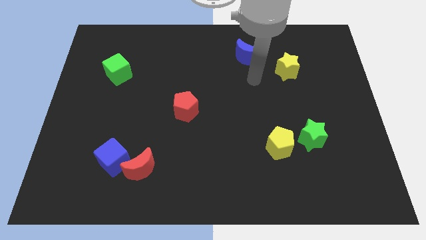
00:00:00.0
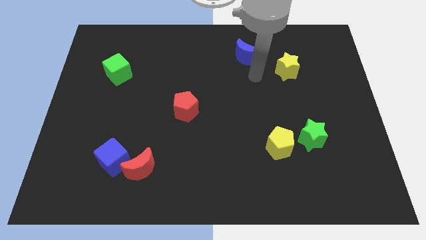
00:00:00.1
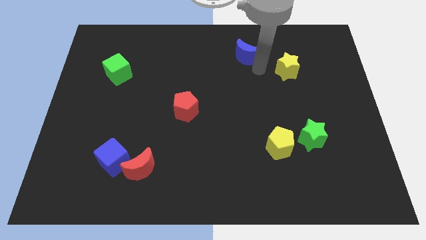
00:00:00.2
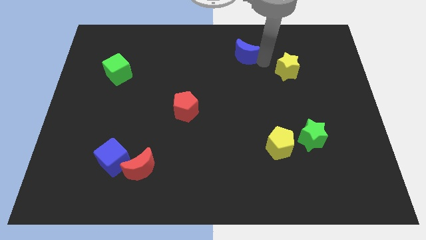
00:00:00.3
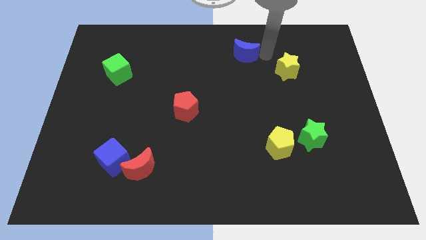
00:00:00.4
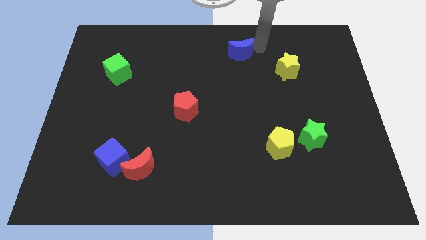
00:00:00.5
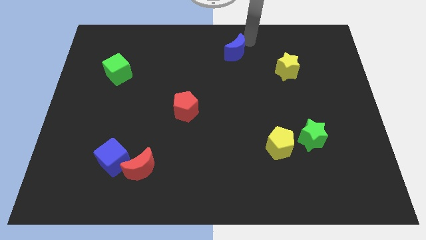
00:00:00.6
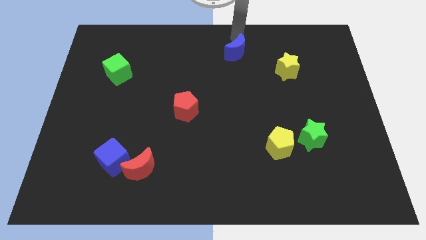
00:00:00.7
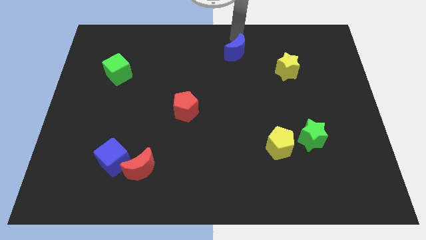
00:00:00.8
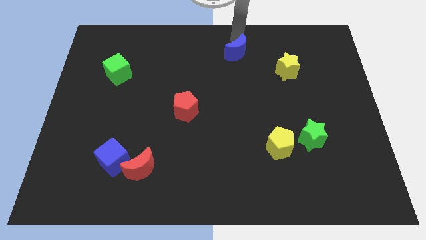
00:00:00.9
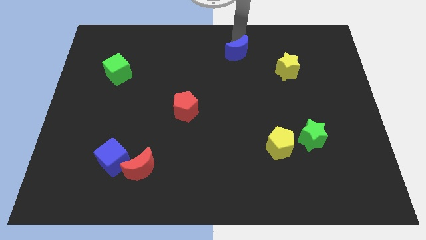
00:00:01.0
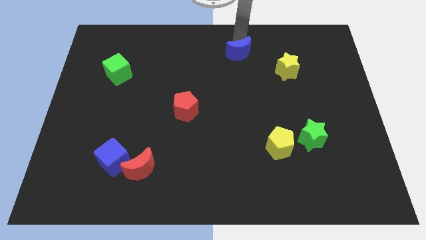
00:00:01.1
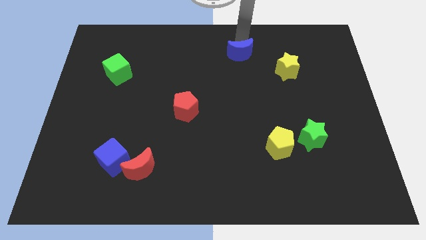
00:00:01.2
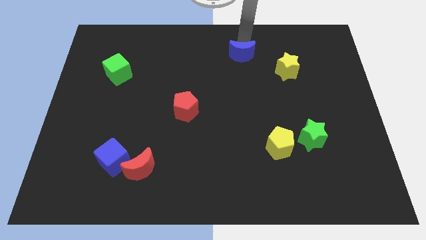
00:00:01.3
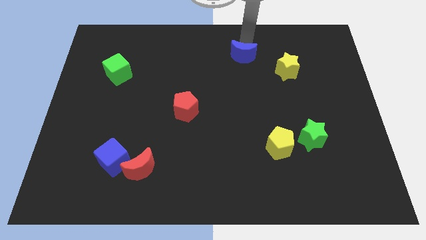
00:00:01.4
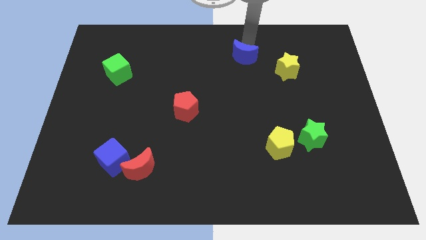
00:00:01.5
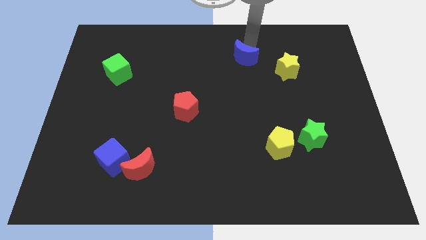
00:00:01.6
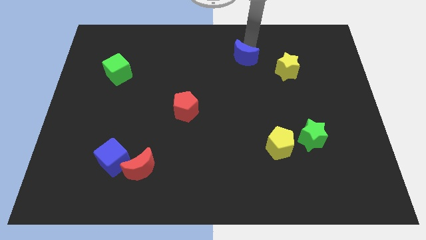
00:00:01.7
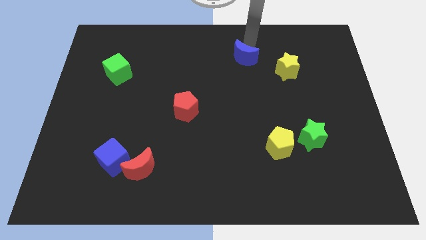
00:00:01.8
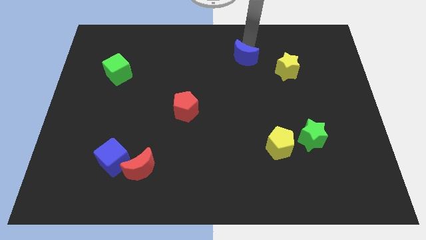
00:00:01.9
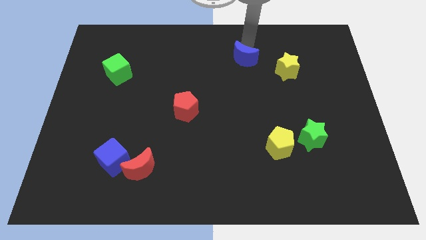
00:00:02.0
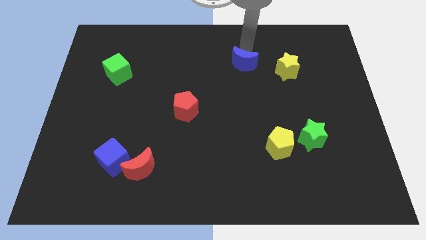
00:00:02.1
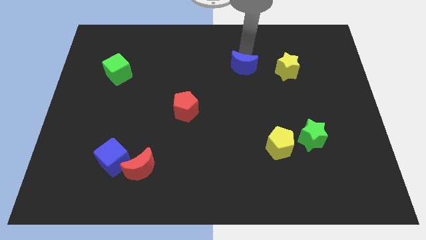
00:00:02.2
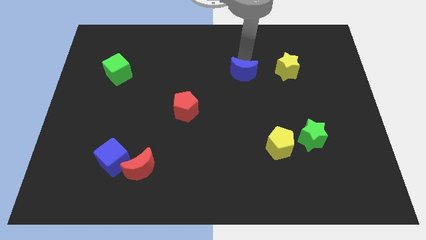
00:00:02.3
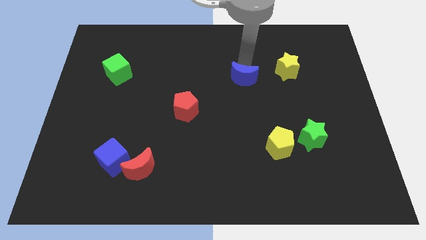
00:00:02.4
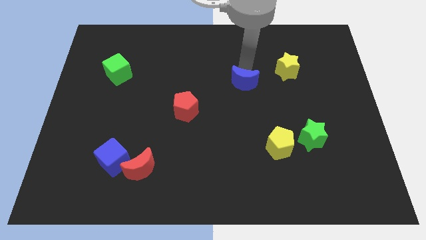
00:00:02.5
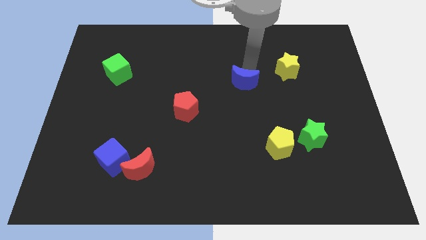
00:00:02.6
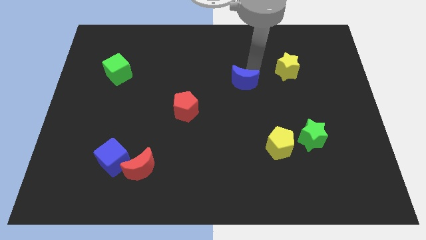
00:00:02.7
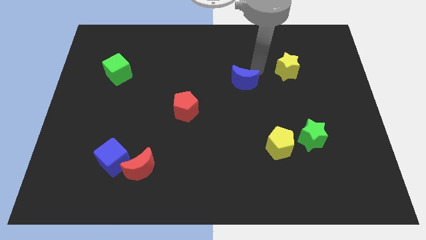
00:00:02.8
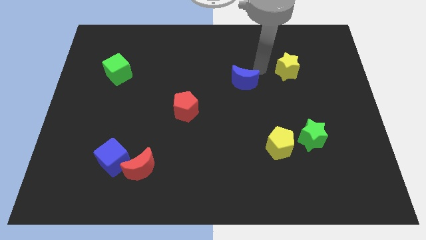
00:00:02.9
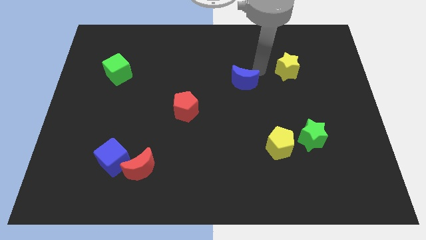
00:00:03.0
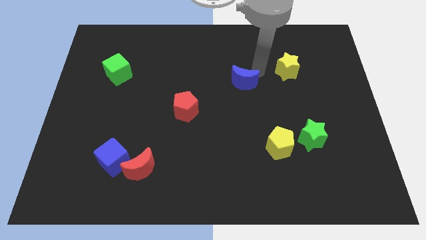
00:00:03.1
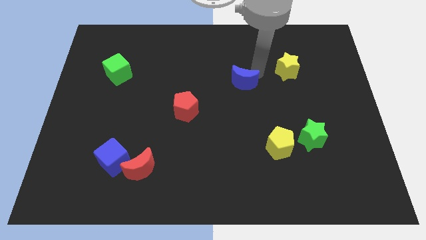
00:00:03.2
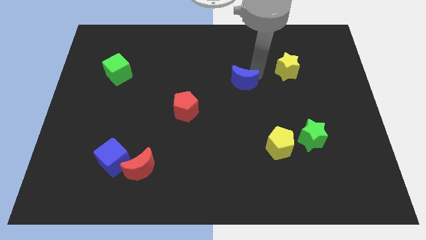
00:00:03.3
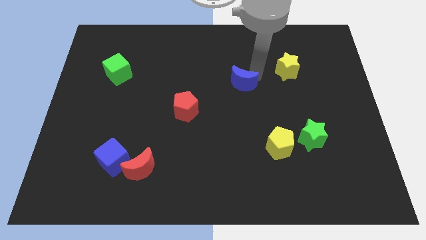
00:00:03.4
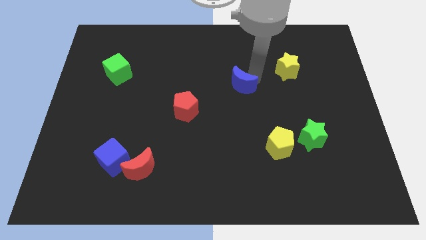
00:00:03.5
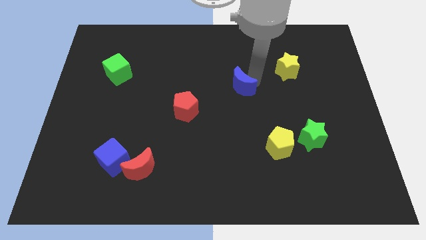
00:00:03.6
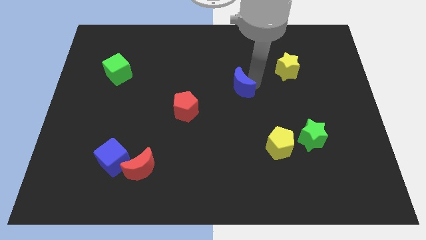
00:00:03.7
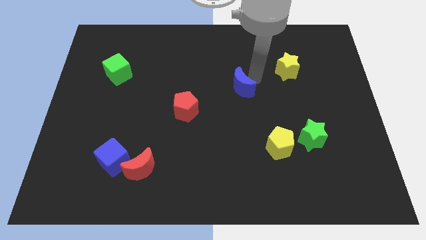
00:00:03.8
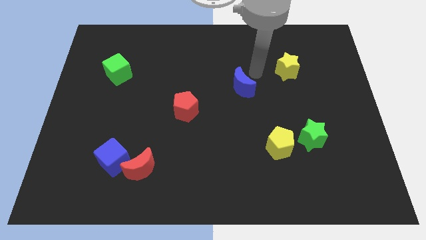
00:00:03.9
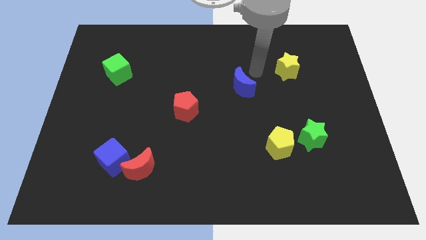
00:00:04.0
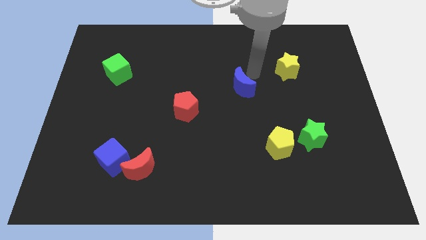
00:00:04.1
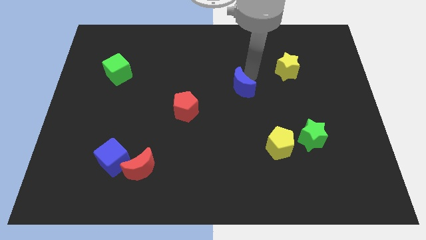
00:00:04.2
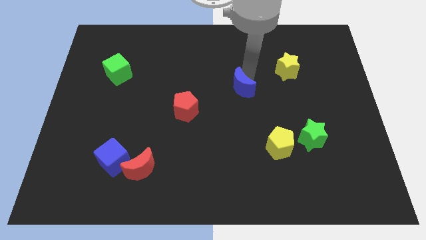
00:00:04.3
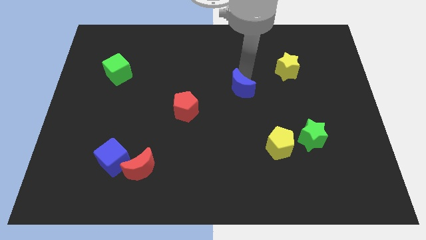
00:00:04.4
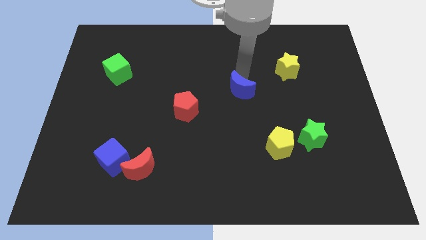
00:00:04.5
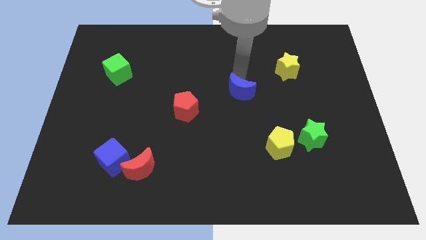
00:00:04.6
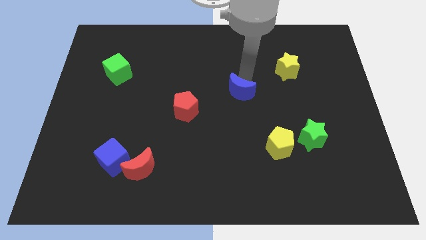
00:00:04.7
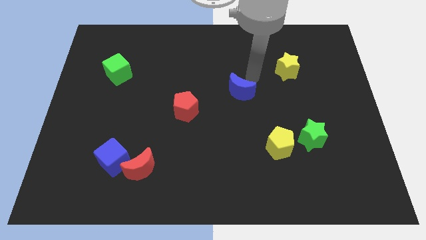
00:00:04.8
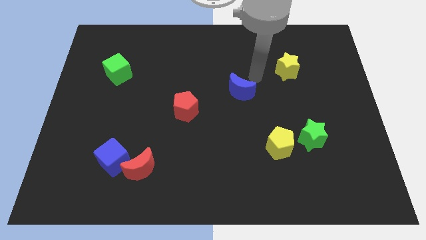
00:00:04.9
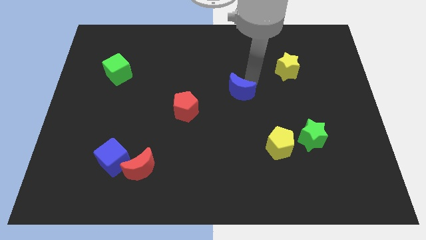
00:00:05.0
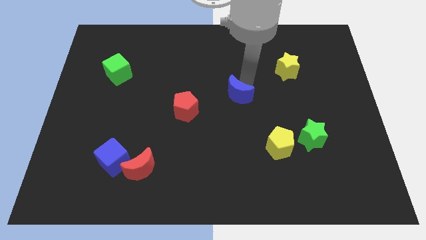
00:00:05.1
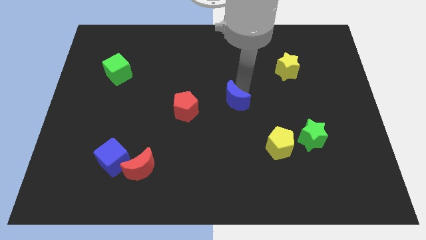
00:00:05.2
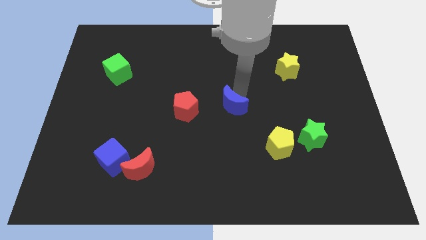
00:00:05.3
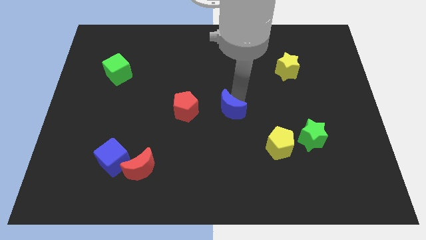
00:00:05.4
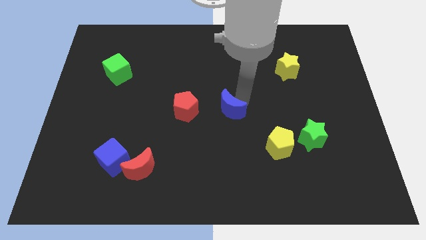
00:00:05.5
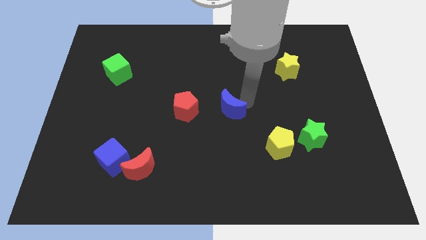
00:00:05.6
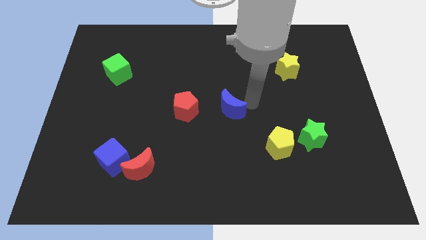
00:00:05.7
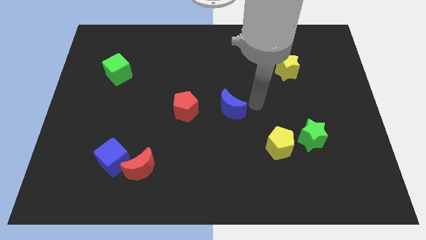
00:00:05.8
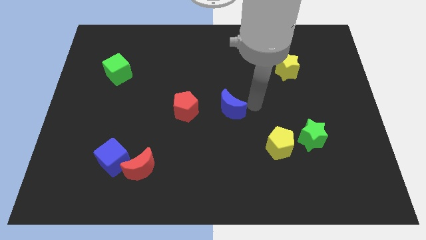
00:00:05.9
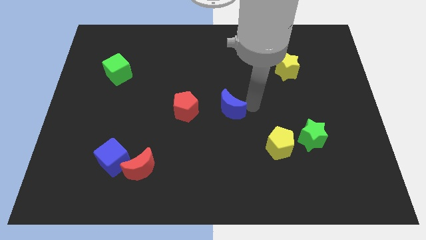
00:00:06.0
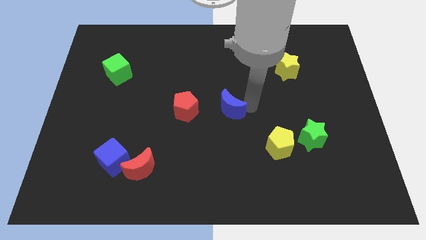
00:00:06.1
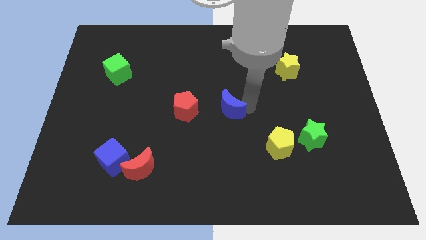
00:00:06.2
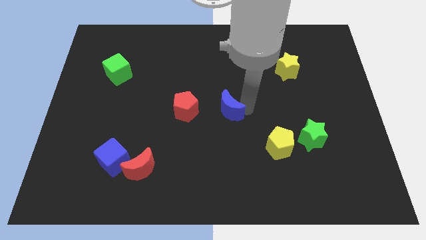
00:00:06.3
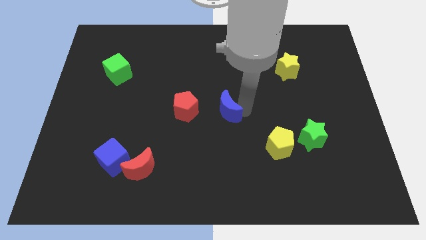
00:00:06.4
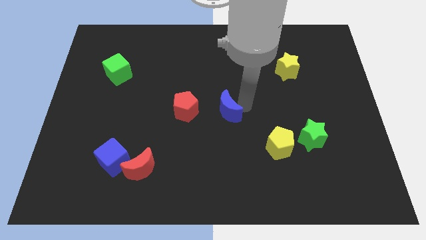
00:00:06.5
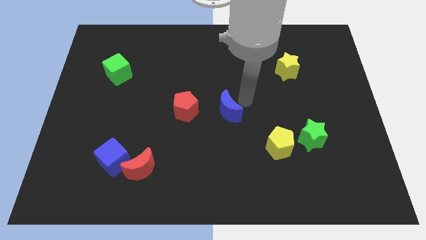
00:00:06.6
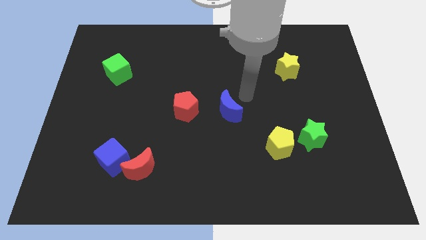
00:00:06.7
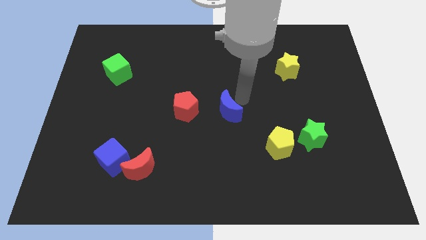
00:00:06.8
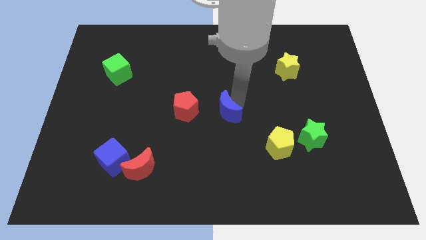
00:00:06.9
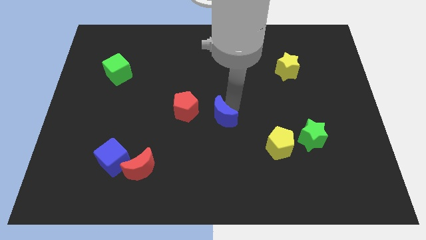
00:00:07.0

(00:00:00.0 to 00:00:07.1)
put the blue moon diagonally down and to the right of the red pentagon
